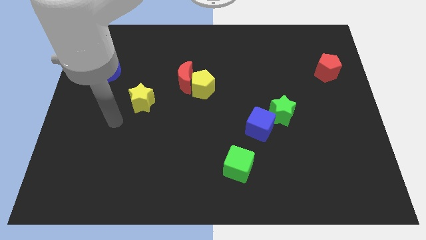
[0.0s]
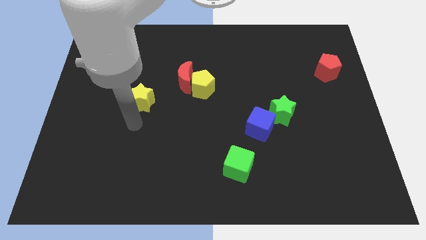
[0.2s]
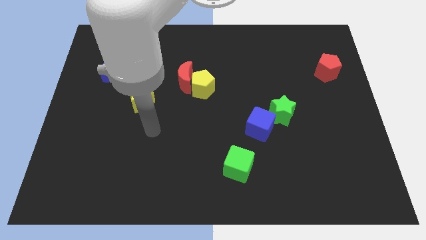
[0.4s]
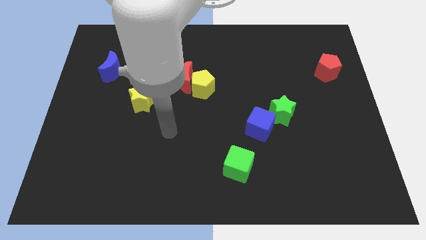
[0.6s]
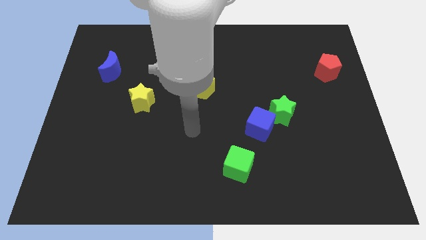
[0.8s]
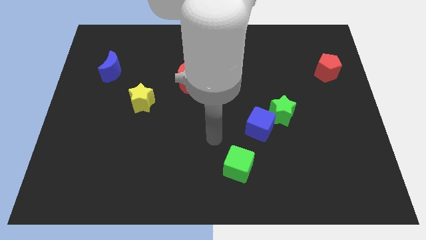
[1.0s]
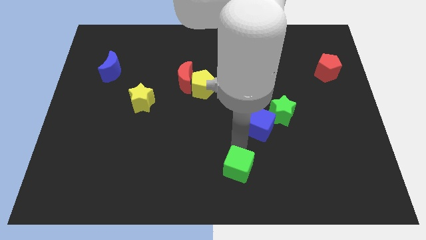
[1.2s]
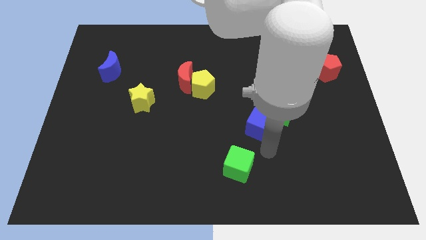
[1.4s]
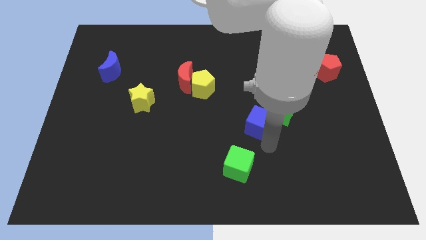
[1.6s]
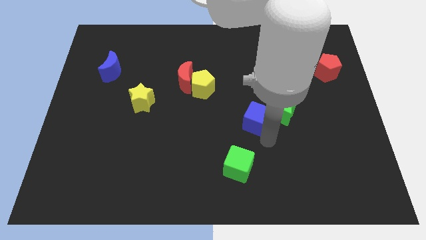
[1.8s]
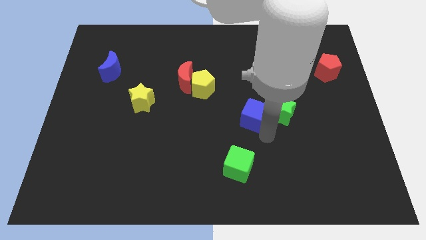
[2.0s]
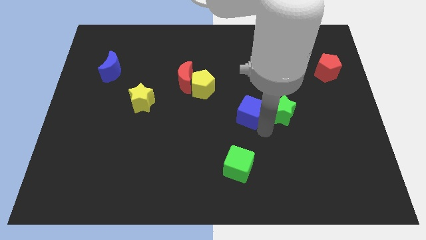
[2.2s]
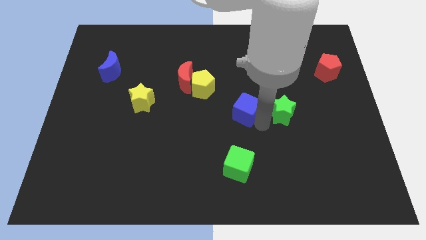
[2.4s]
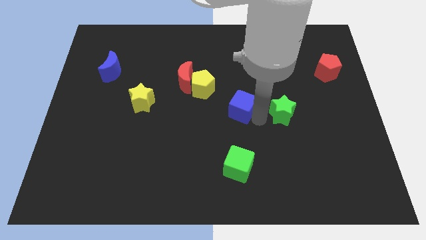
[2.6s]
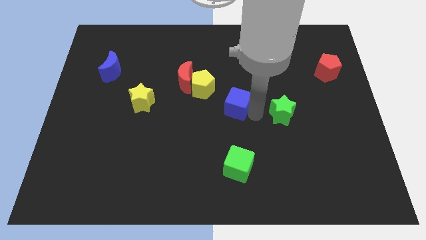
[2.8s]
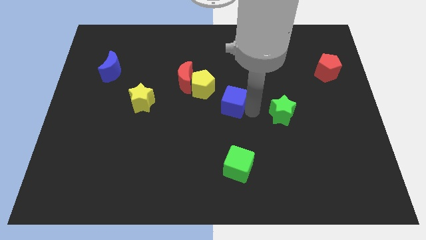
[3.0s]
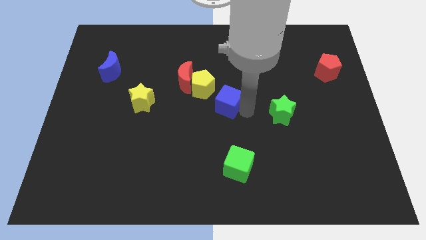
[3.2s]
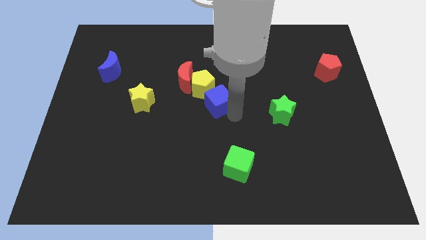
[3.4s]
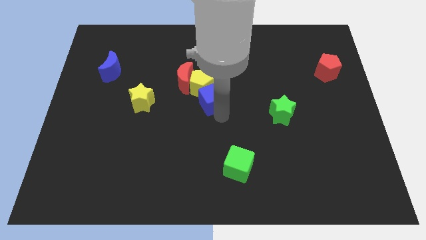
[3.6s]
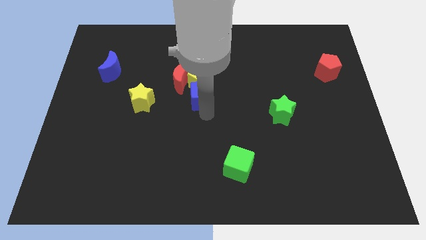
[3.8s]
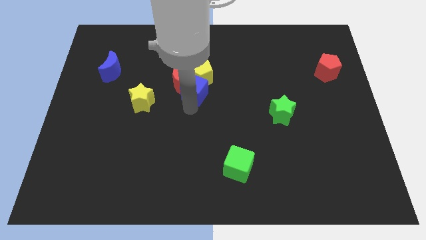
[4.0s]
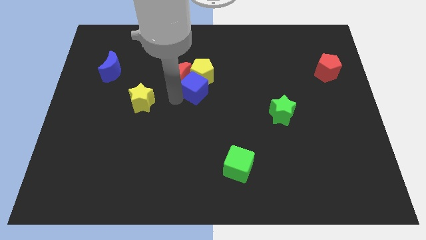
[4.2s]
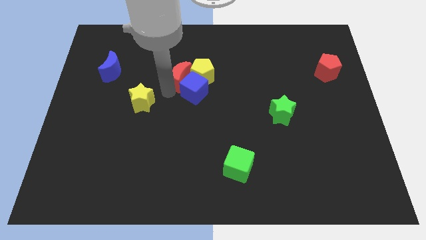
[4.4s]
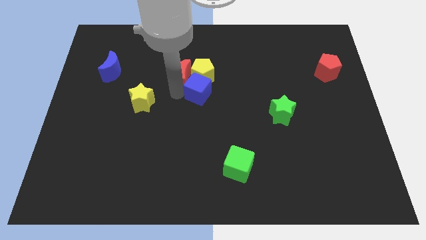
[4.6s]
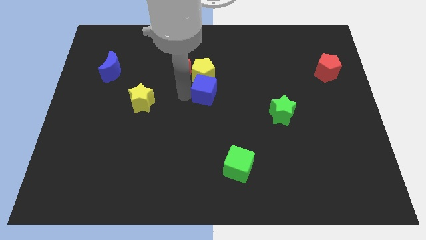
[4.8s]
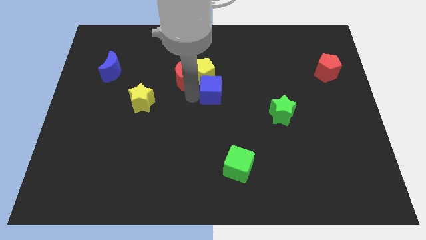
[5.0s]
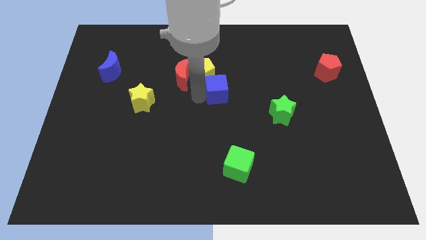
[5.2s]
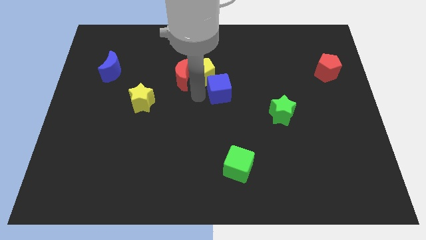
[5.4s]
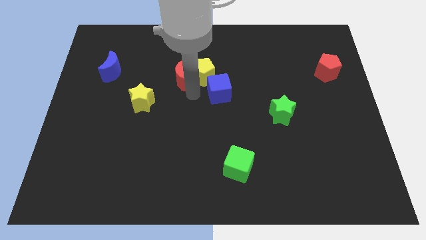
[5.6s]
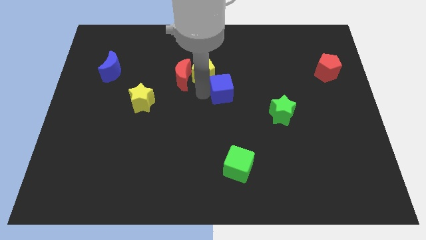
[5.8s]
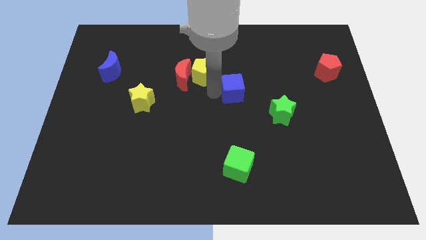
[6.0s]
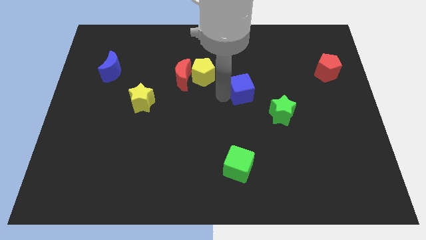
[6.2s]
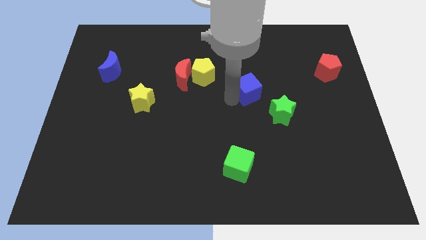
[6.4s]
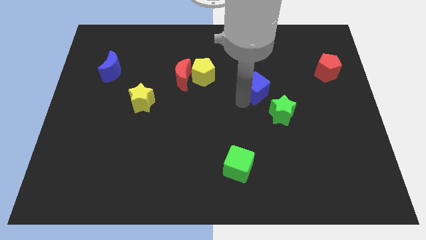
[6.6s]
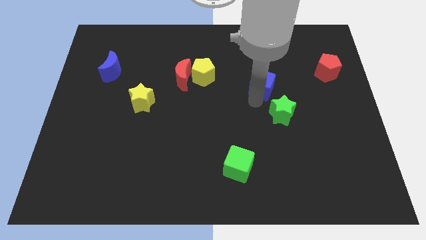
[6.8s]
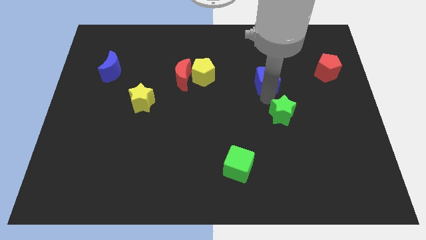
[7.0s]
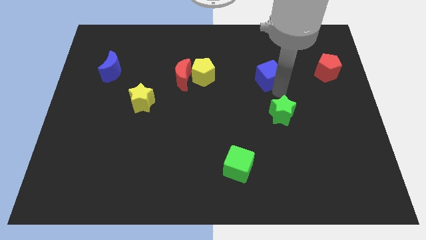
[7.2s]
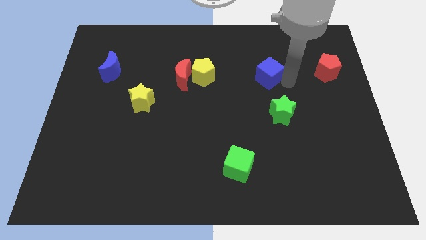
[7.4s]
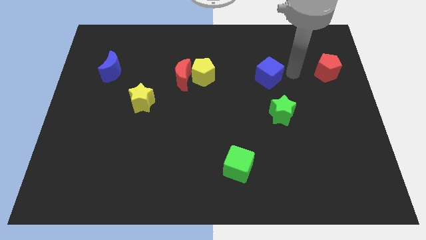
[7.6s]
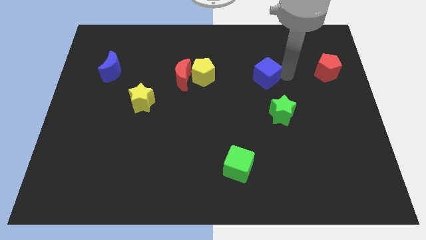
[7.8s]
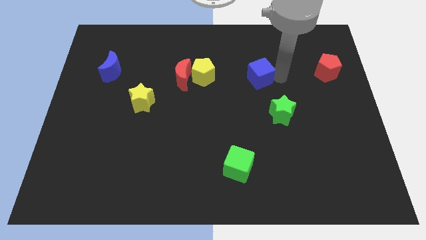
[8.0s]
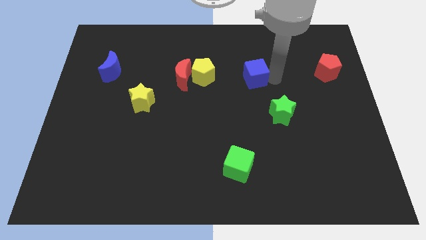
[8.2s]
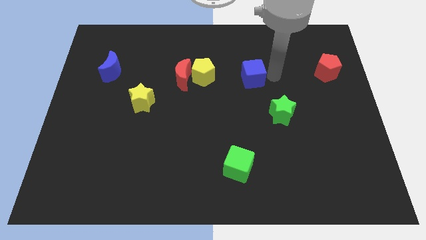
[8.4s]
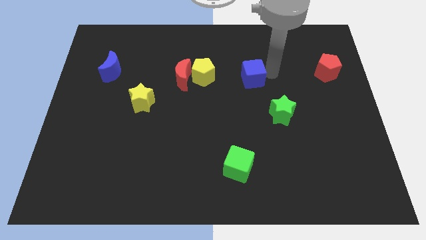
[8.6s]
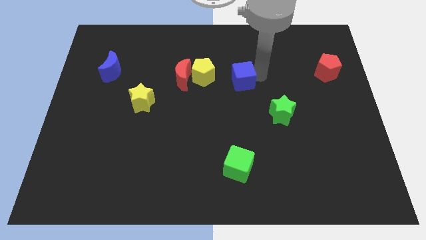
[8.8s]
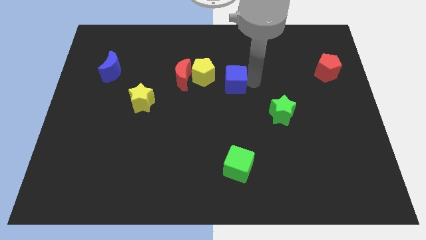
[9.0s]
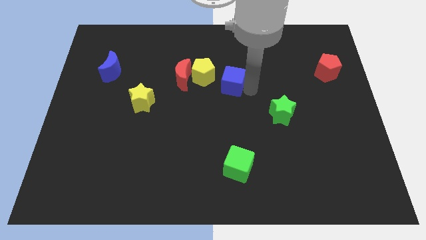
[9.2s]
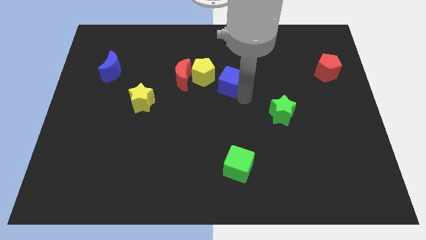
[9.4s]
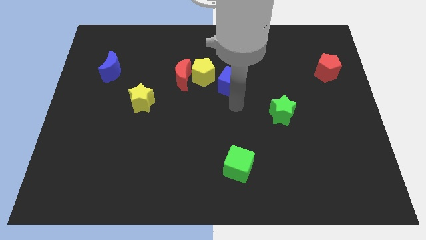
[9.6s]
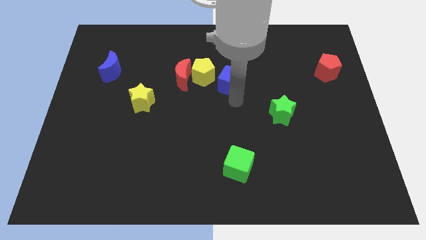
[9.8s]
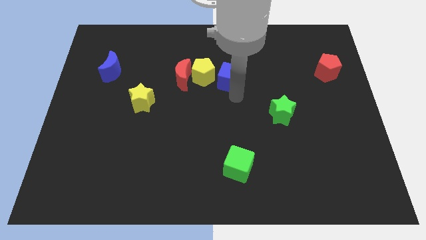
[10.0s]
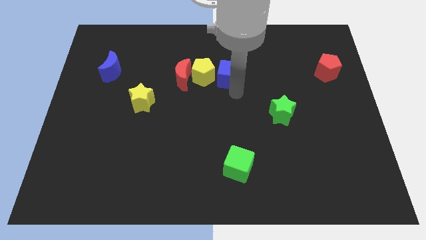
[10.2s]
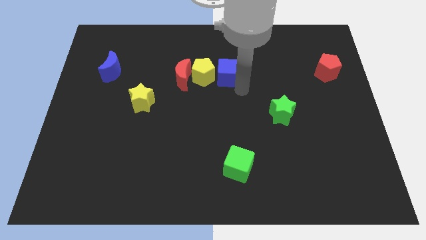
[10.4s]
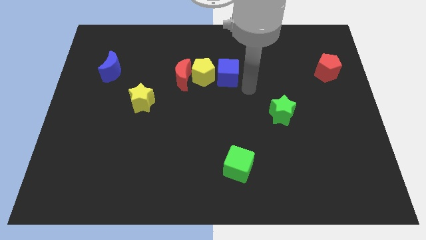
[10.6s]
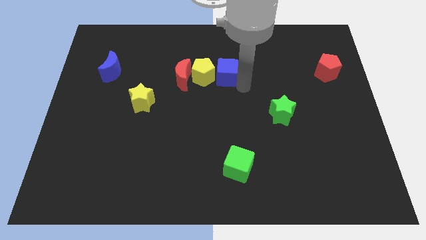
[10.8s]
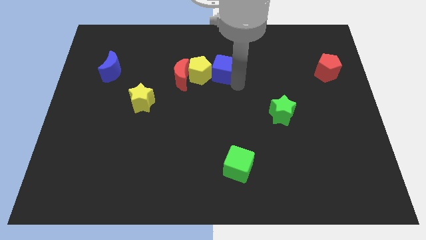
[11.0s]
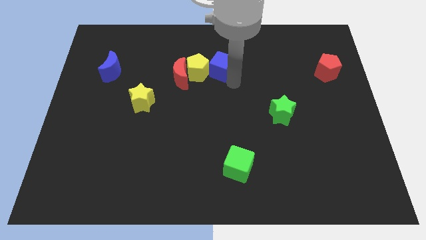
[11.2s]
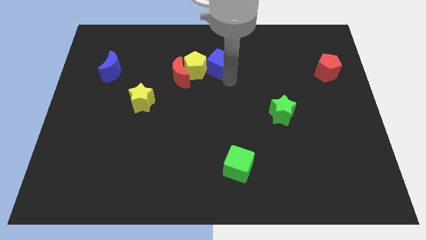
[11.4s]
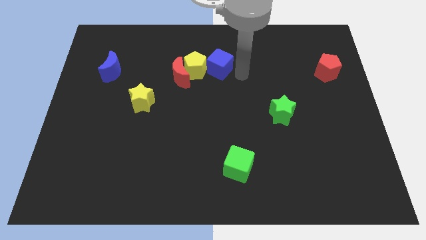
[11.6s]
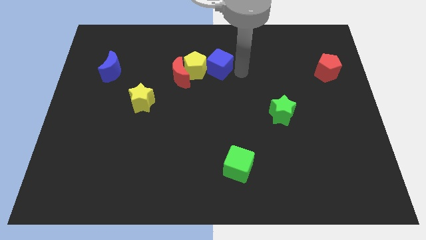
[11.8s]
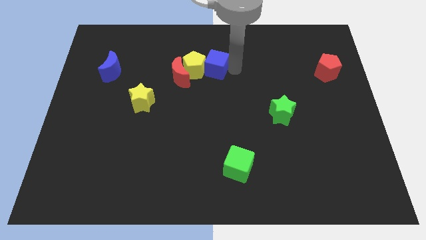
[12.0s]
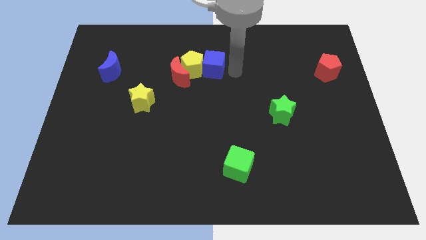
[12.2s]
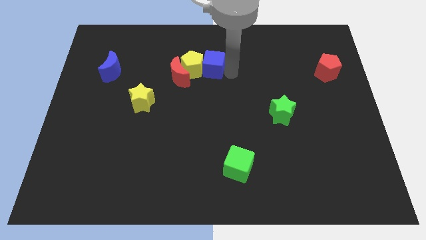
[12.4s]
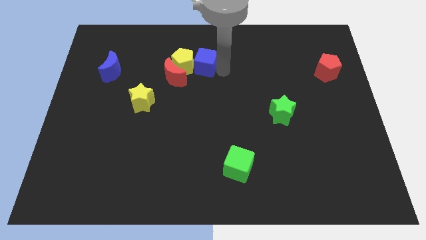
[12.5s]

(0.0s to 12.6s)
push the blue cube up and left

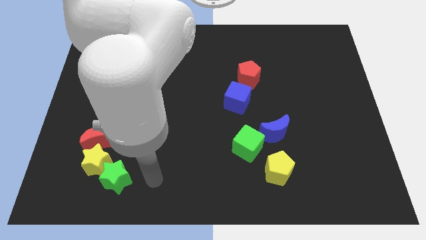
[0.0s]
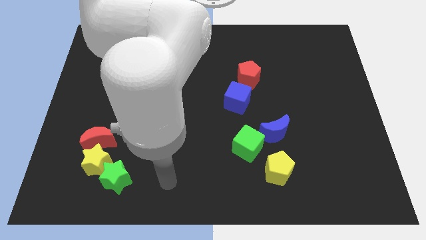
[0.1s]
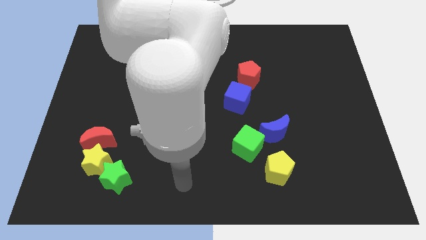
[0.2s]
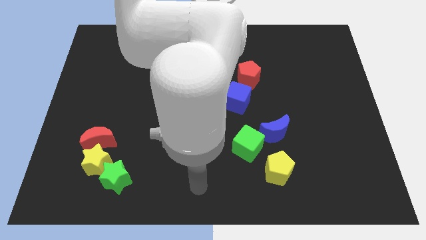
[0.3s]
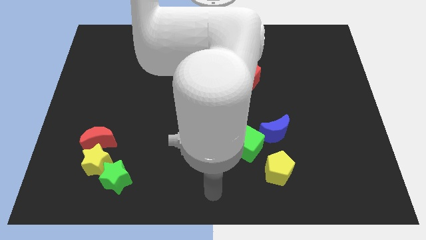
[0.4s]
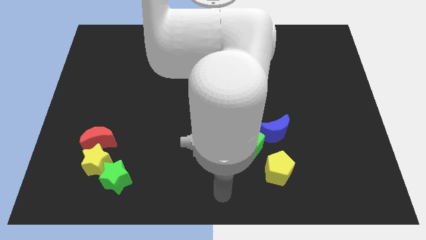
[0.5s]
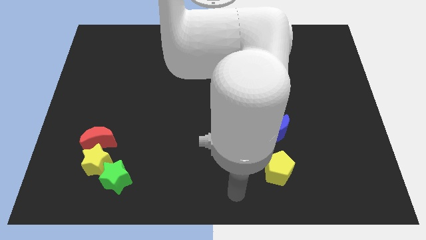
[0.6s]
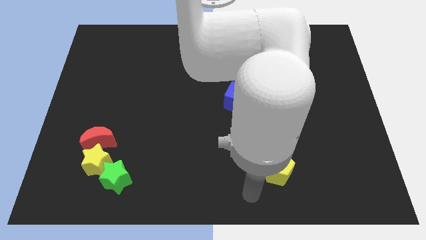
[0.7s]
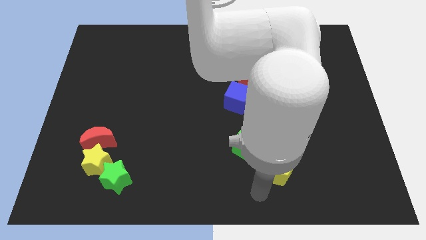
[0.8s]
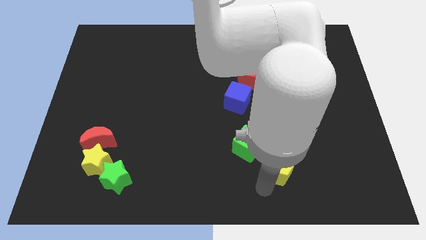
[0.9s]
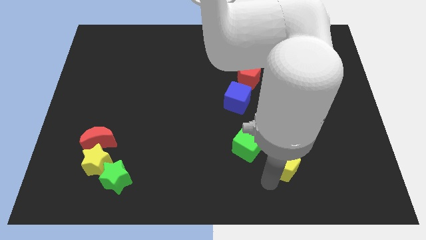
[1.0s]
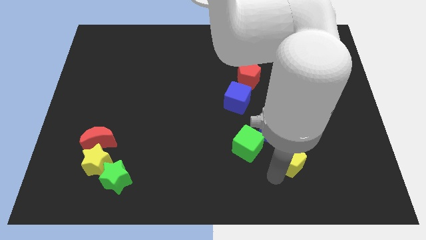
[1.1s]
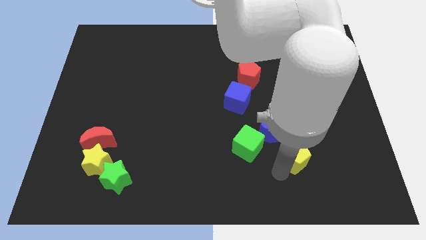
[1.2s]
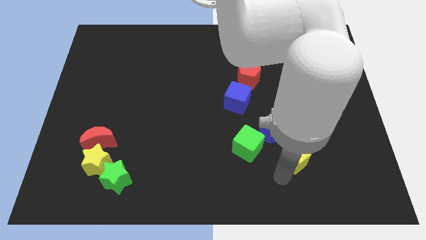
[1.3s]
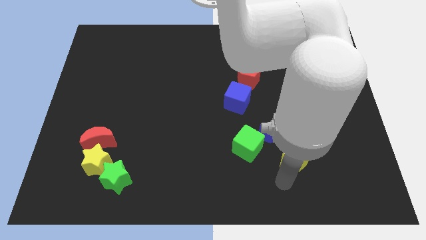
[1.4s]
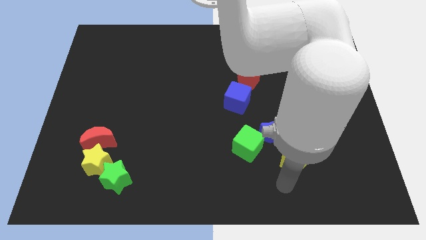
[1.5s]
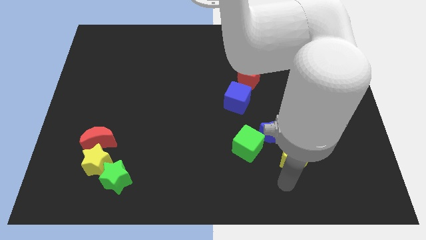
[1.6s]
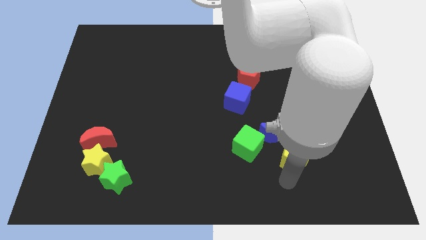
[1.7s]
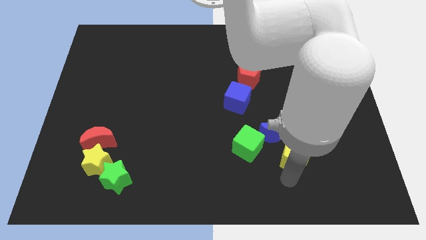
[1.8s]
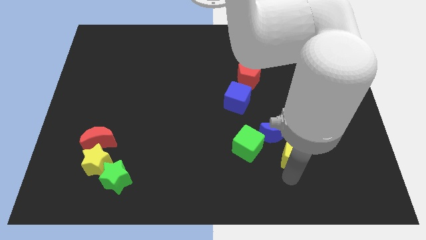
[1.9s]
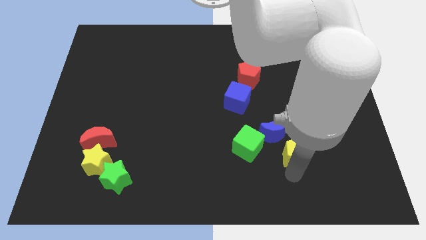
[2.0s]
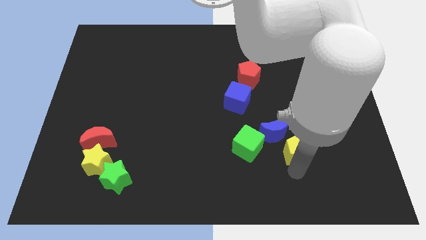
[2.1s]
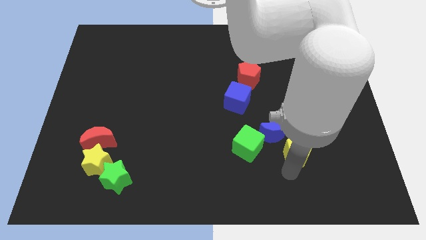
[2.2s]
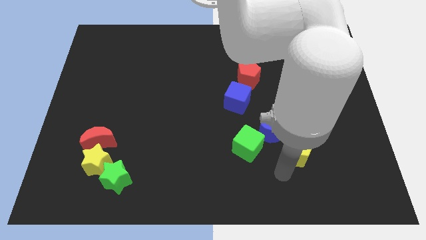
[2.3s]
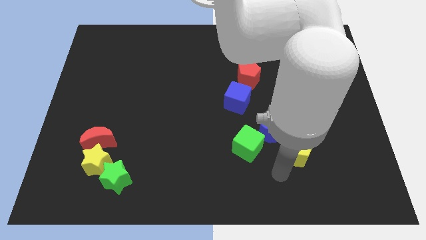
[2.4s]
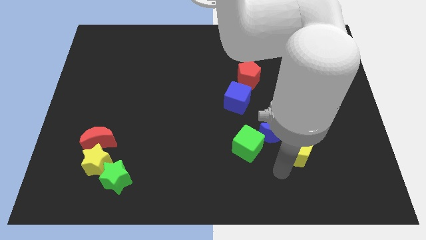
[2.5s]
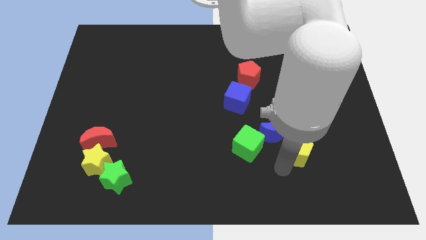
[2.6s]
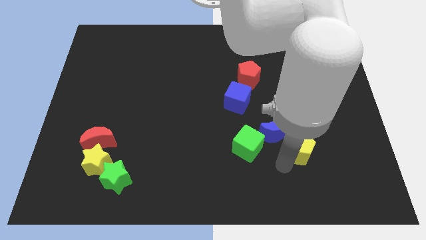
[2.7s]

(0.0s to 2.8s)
move the yellow pentagon a bit upwards and then to the right
